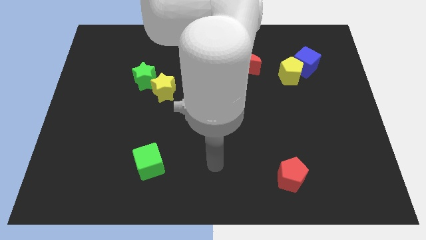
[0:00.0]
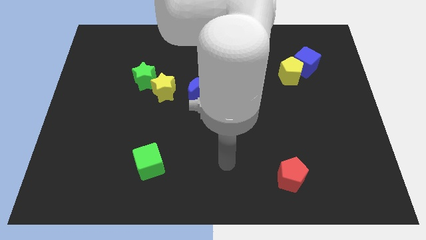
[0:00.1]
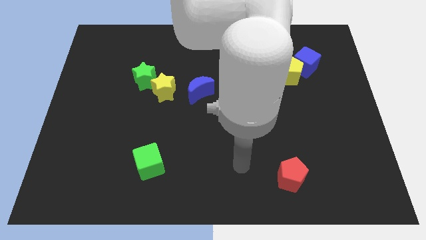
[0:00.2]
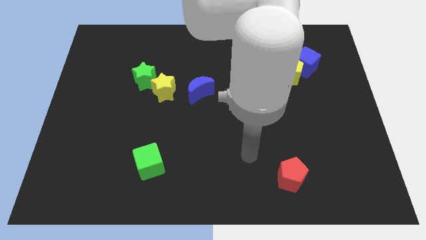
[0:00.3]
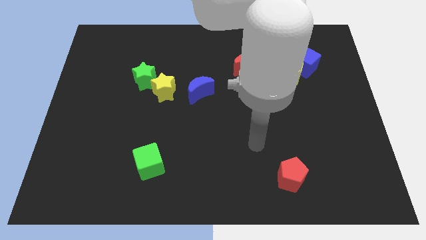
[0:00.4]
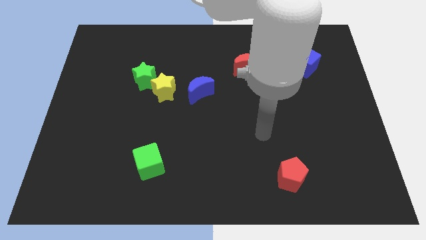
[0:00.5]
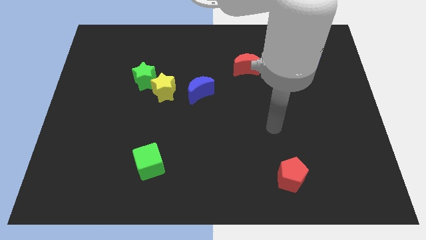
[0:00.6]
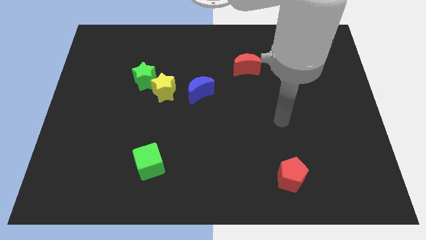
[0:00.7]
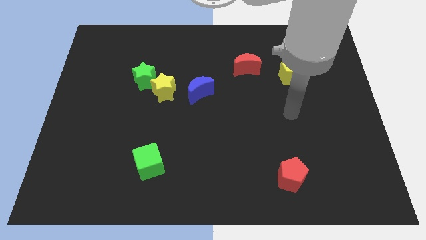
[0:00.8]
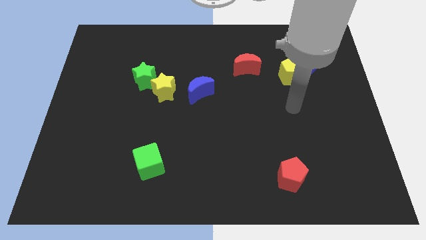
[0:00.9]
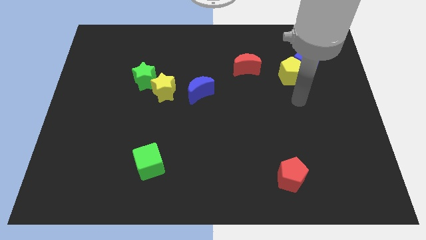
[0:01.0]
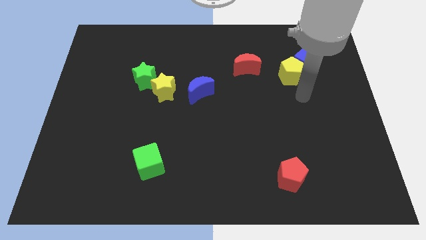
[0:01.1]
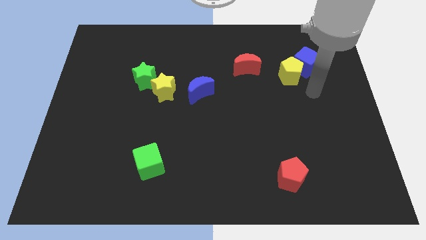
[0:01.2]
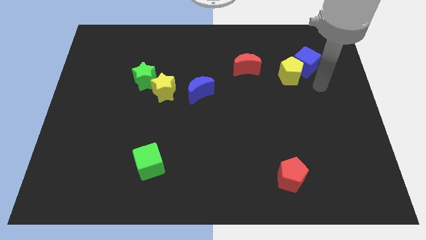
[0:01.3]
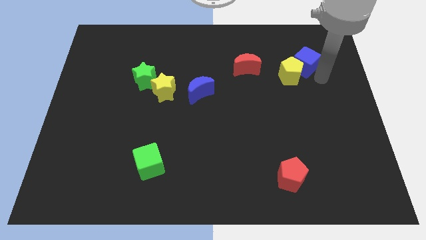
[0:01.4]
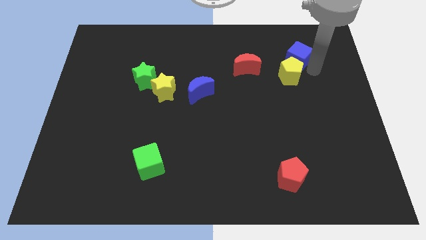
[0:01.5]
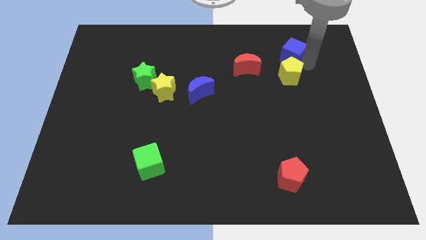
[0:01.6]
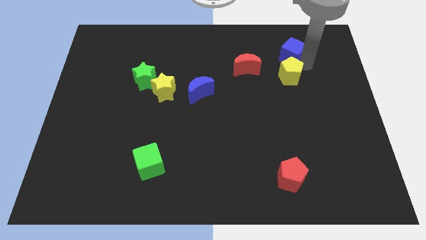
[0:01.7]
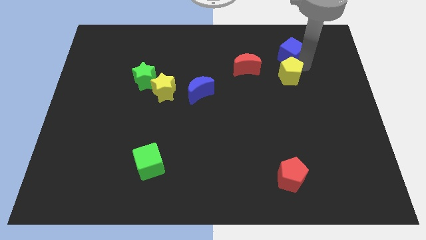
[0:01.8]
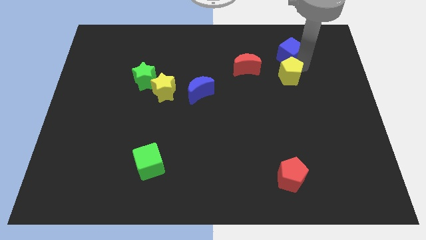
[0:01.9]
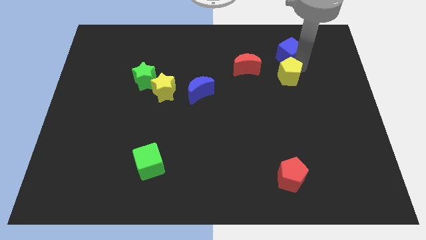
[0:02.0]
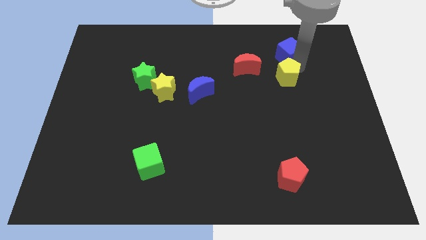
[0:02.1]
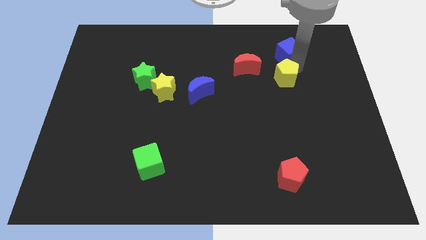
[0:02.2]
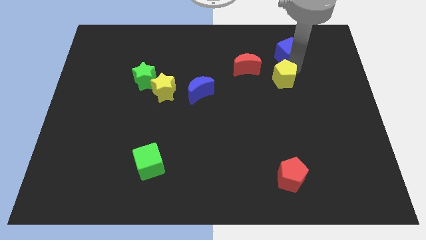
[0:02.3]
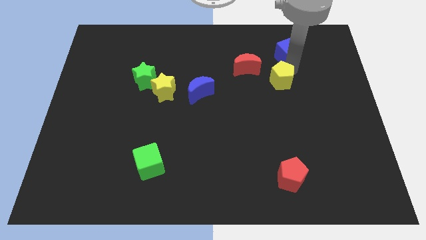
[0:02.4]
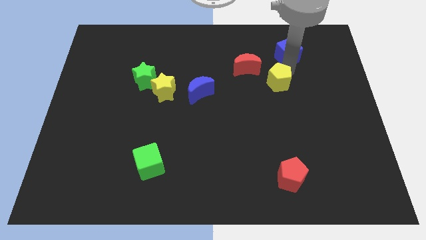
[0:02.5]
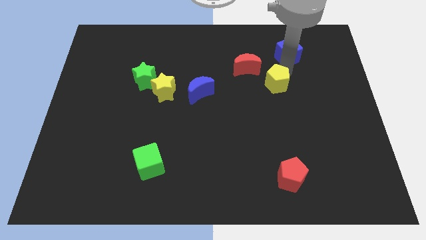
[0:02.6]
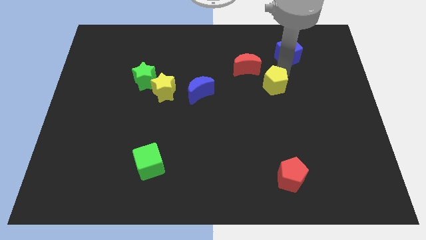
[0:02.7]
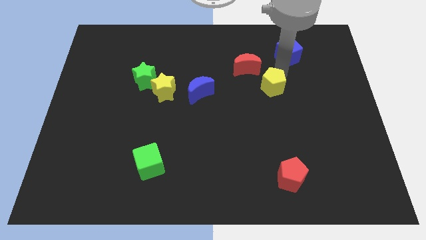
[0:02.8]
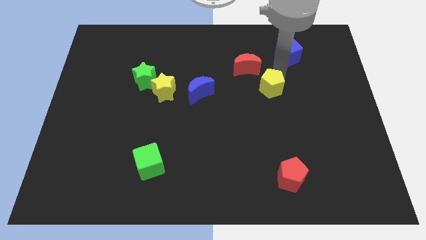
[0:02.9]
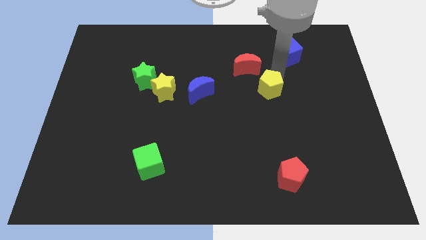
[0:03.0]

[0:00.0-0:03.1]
push the yellow pentagon down and to the left a little

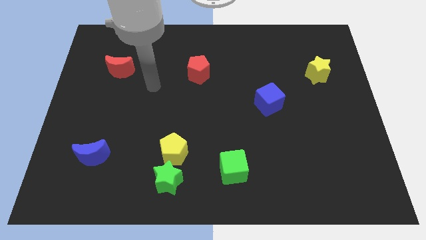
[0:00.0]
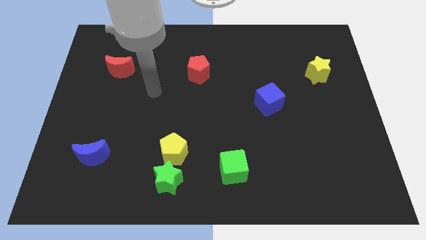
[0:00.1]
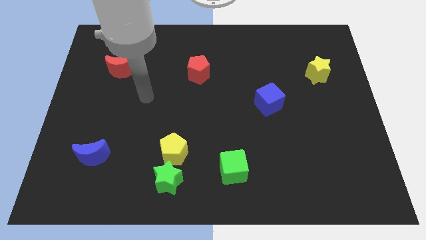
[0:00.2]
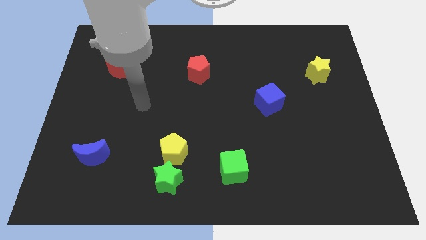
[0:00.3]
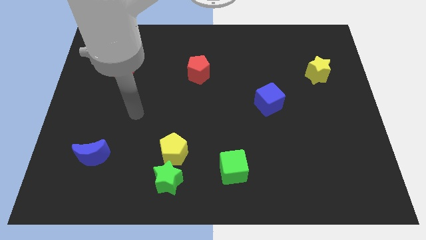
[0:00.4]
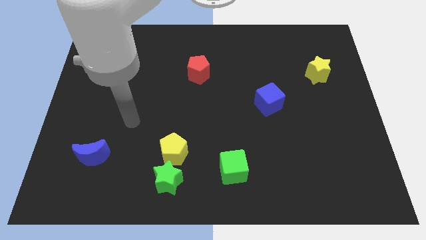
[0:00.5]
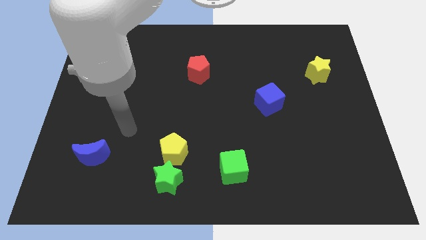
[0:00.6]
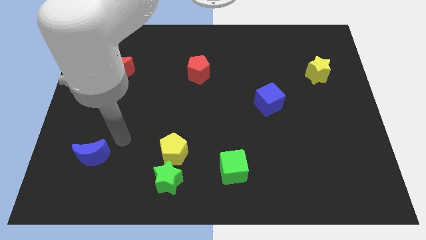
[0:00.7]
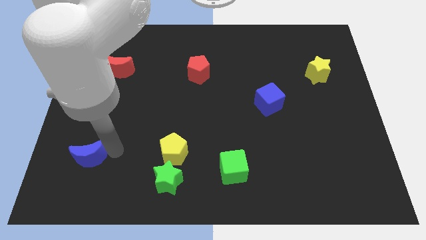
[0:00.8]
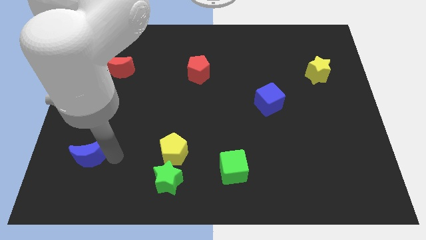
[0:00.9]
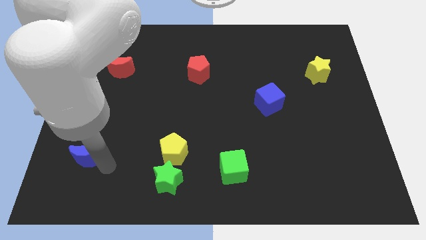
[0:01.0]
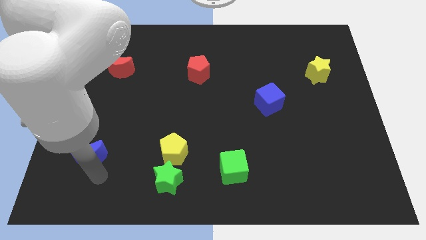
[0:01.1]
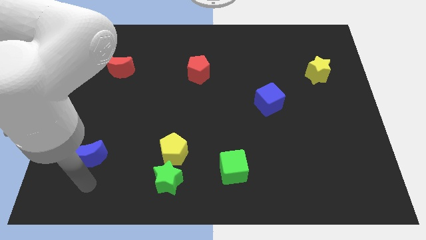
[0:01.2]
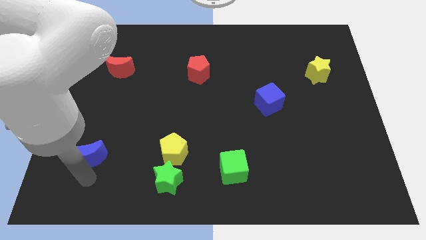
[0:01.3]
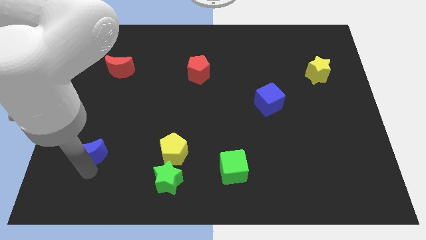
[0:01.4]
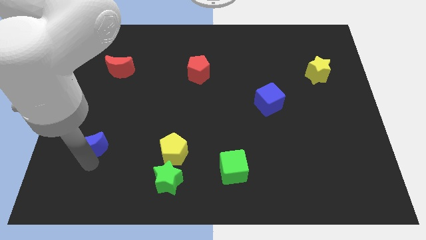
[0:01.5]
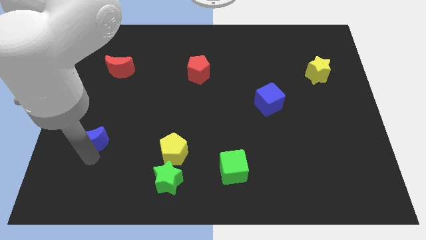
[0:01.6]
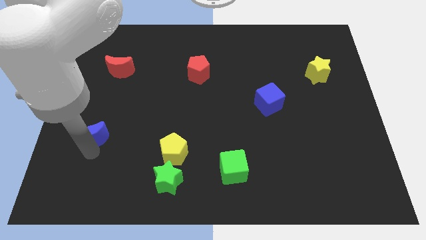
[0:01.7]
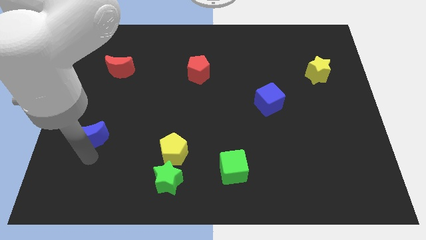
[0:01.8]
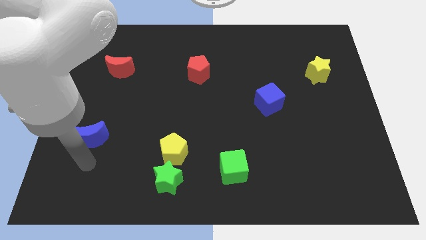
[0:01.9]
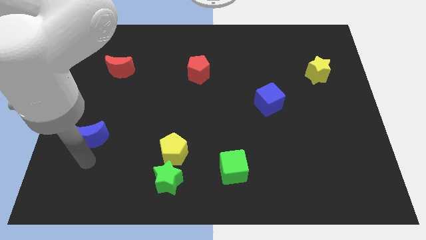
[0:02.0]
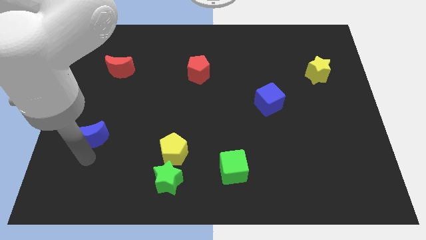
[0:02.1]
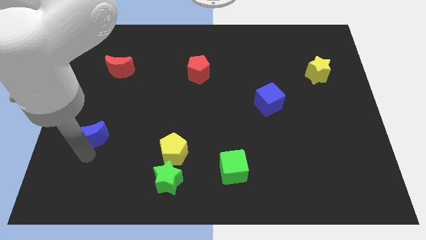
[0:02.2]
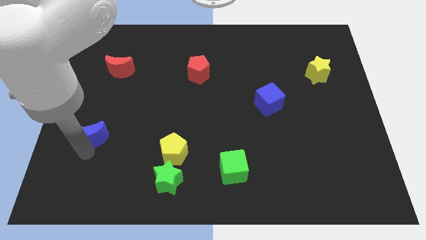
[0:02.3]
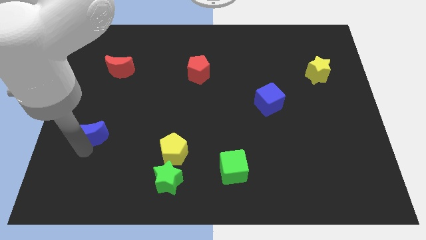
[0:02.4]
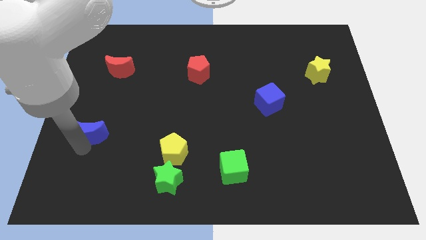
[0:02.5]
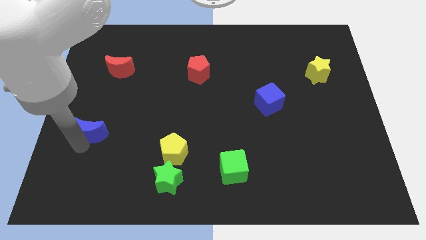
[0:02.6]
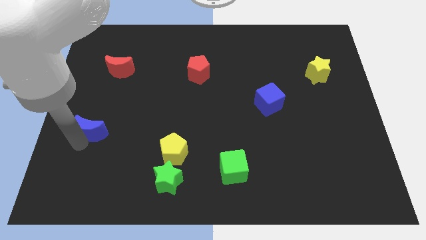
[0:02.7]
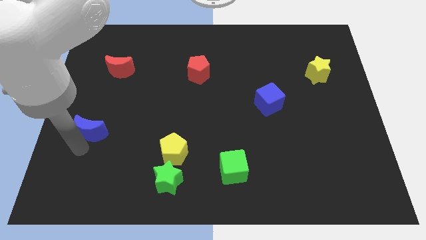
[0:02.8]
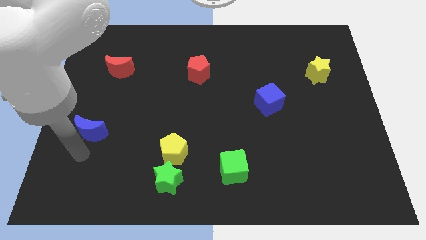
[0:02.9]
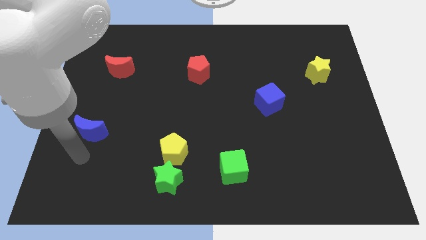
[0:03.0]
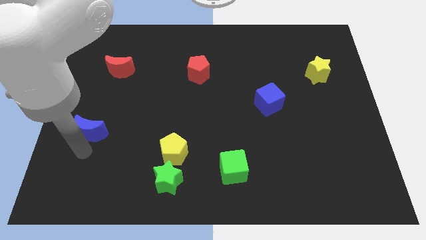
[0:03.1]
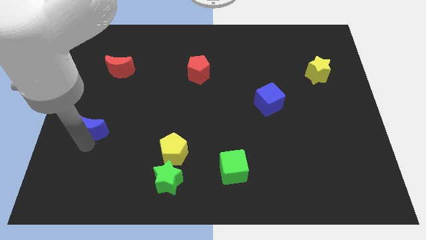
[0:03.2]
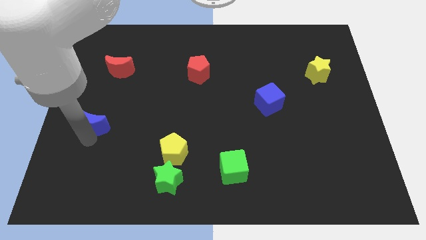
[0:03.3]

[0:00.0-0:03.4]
slide the blue moon a bit up

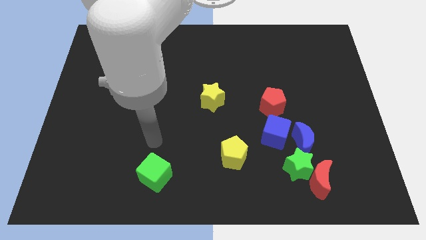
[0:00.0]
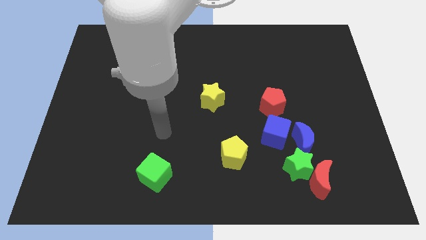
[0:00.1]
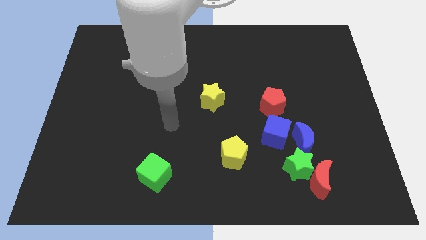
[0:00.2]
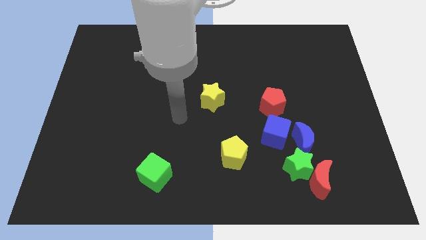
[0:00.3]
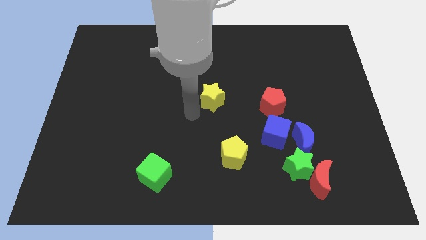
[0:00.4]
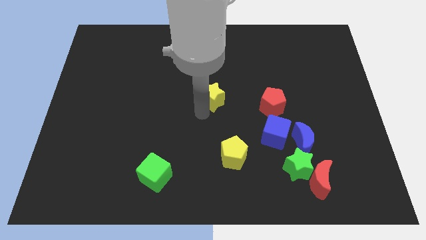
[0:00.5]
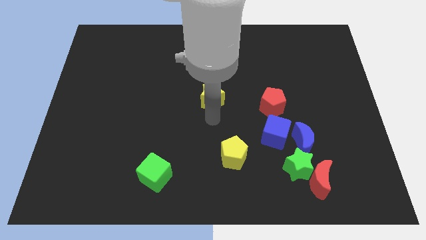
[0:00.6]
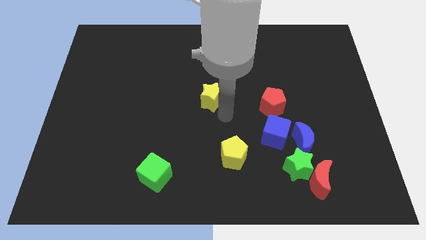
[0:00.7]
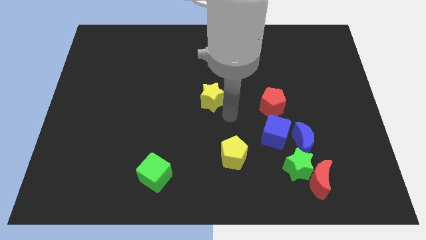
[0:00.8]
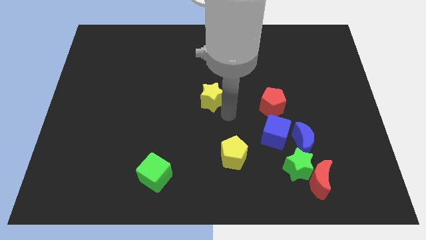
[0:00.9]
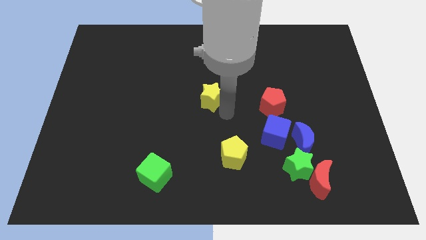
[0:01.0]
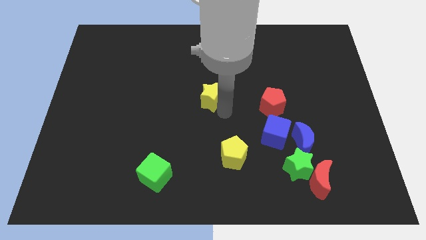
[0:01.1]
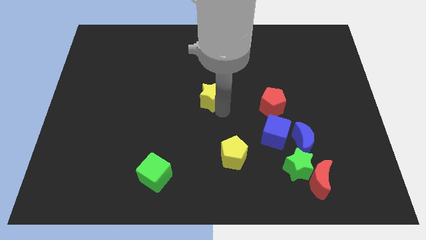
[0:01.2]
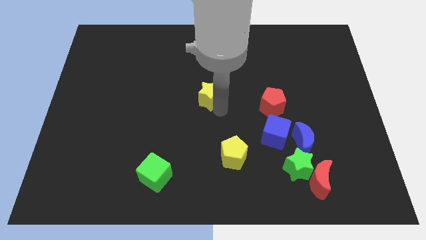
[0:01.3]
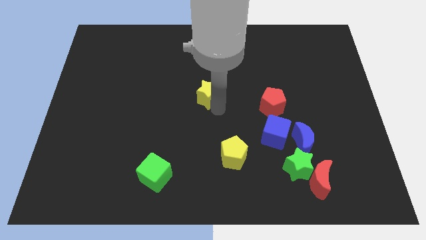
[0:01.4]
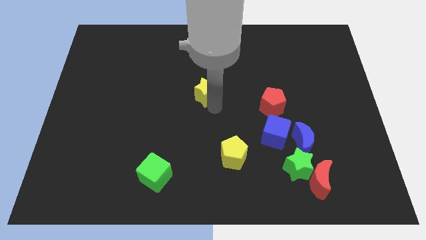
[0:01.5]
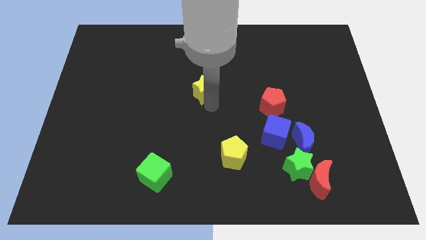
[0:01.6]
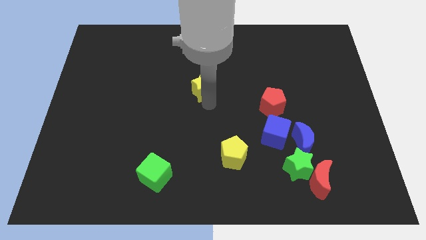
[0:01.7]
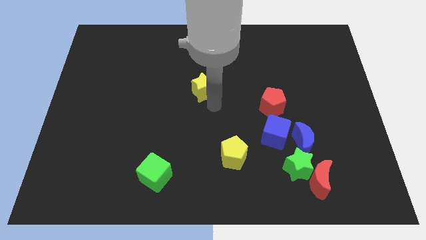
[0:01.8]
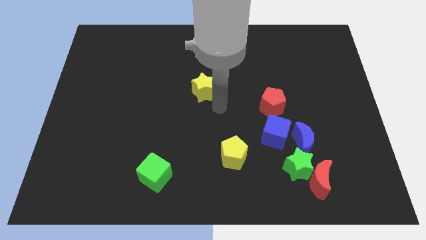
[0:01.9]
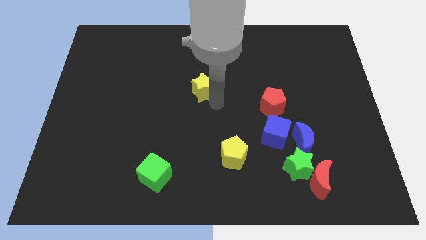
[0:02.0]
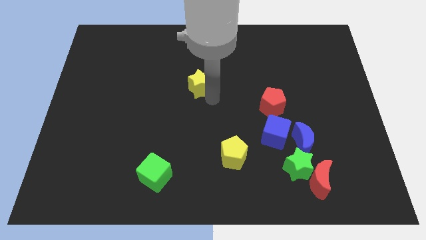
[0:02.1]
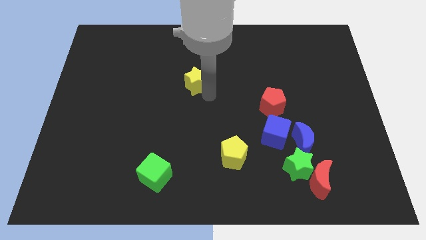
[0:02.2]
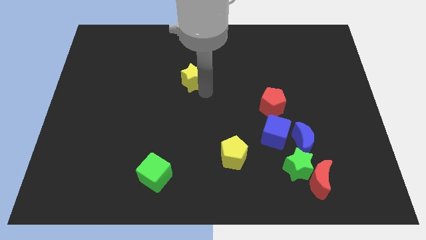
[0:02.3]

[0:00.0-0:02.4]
slightly slide the yellow star upwards and to the left
